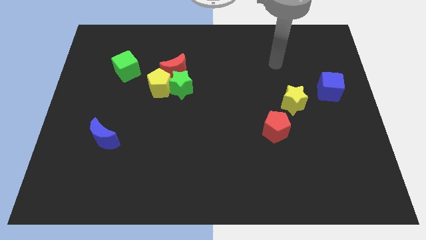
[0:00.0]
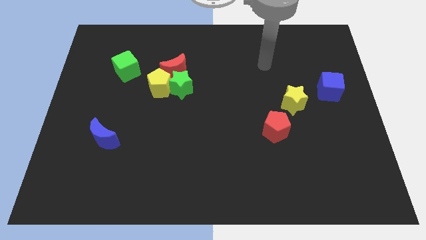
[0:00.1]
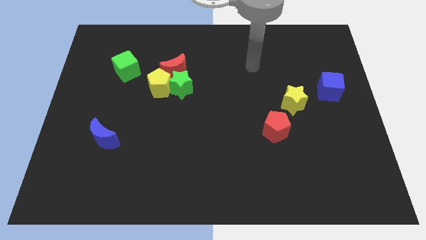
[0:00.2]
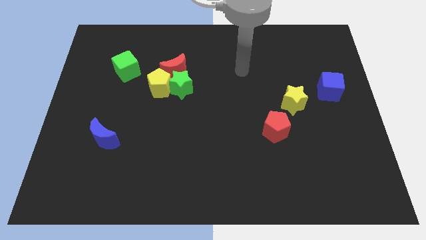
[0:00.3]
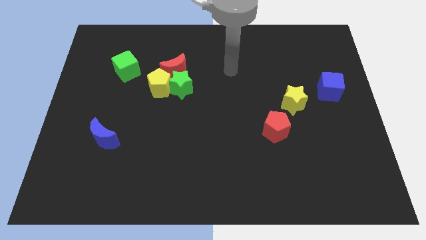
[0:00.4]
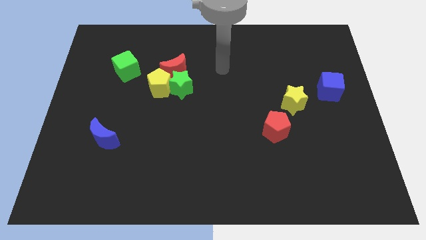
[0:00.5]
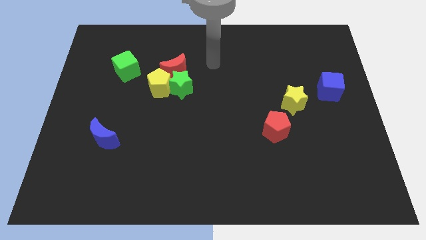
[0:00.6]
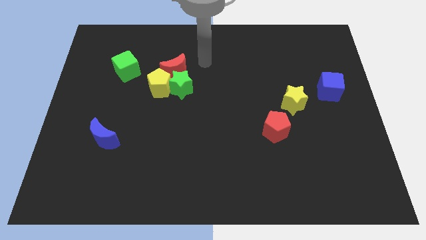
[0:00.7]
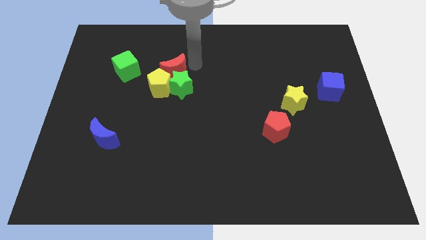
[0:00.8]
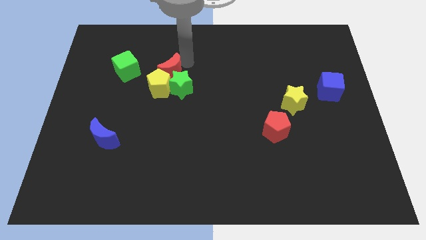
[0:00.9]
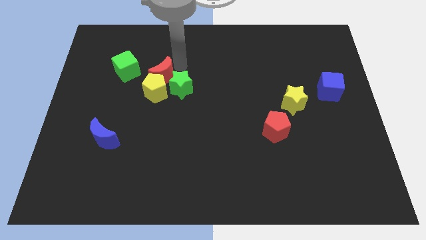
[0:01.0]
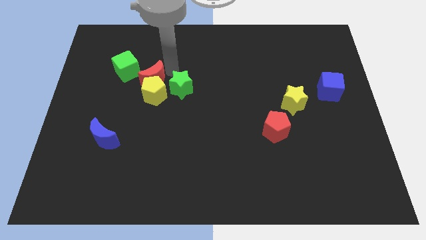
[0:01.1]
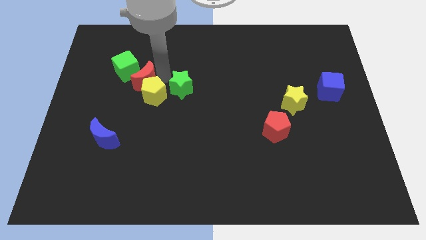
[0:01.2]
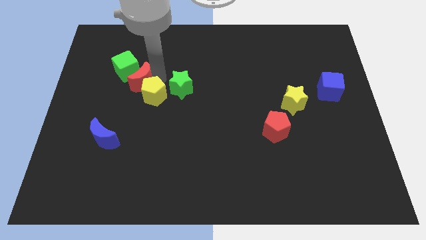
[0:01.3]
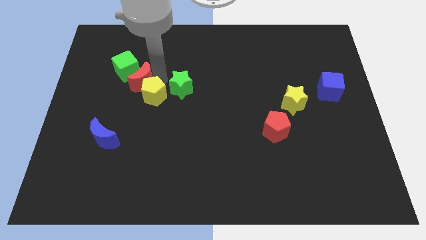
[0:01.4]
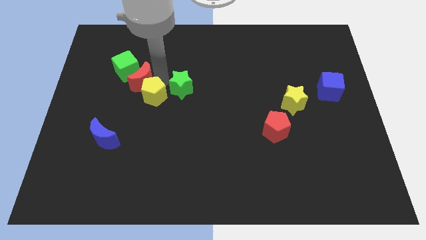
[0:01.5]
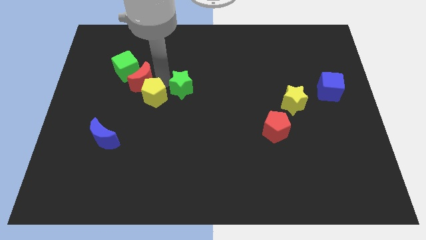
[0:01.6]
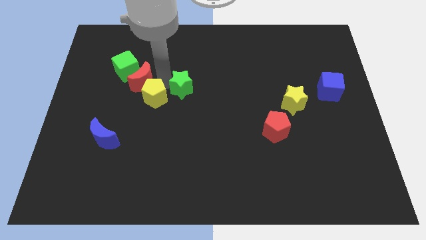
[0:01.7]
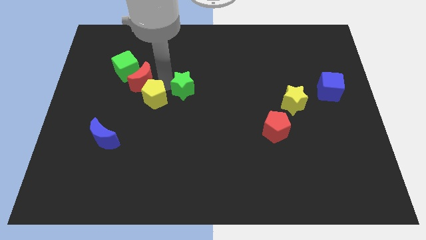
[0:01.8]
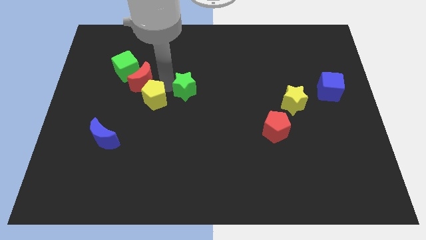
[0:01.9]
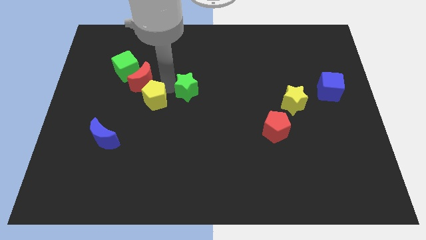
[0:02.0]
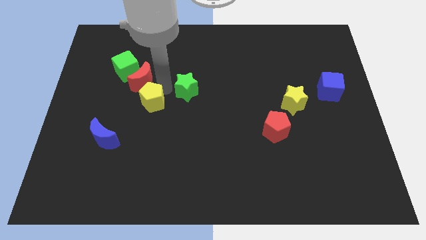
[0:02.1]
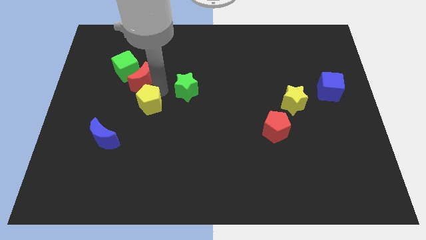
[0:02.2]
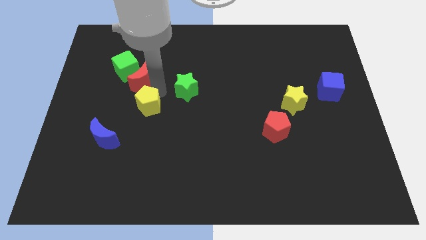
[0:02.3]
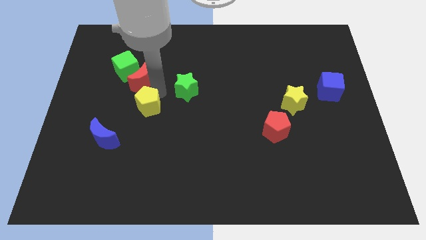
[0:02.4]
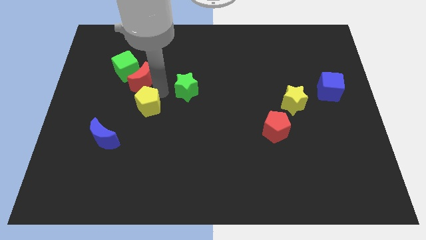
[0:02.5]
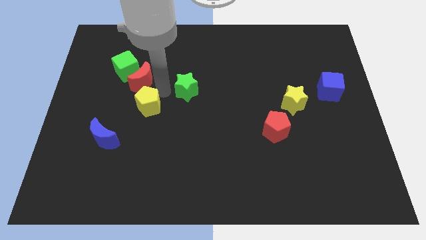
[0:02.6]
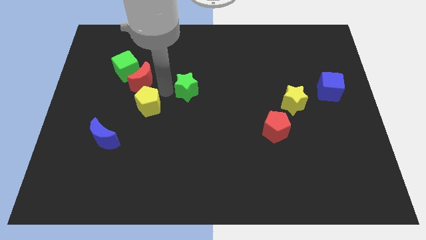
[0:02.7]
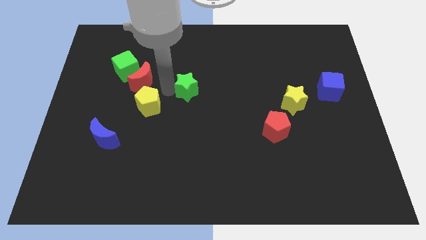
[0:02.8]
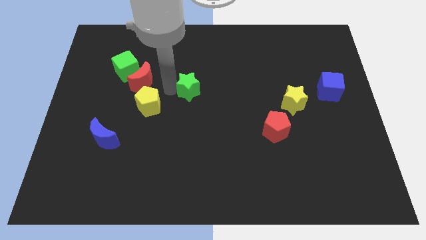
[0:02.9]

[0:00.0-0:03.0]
move the green star away from the yellow pentagon and red moon

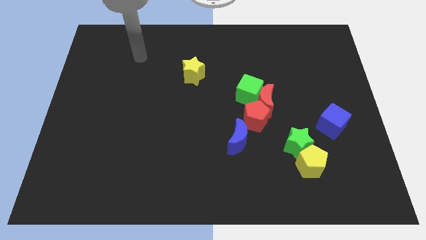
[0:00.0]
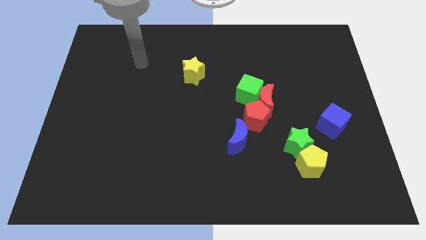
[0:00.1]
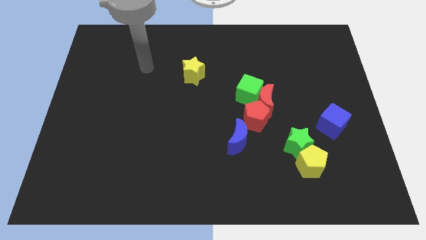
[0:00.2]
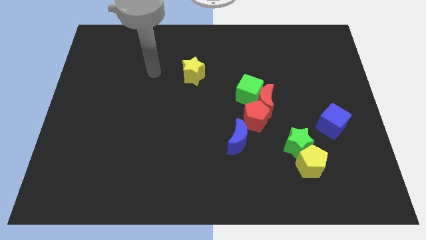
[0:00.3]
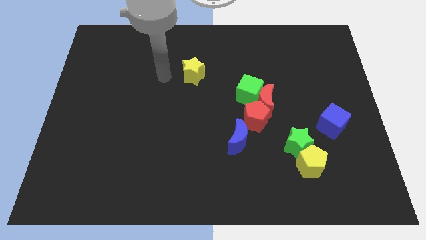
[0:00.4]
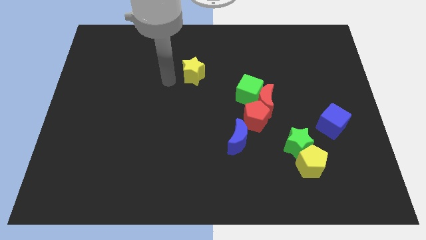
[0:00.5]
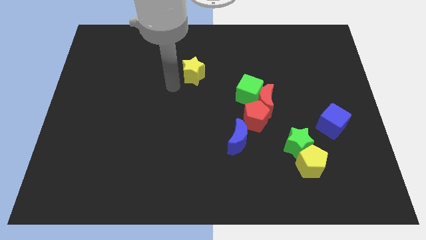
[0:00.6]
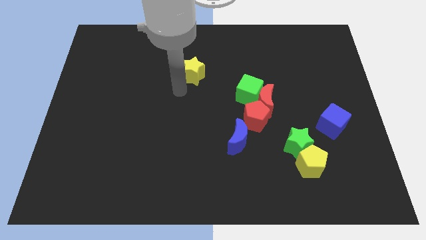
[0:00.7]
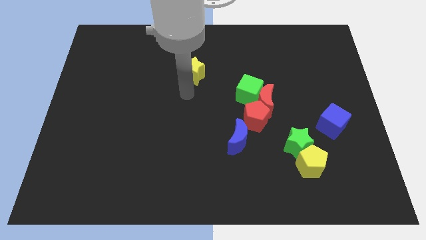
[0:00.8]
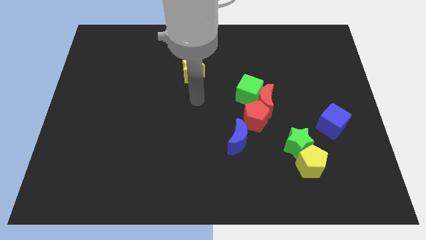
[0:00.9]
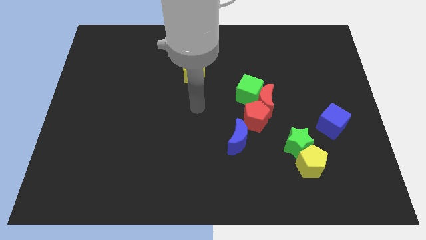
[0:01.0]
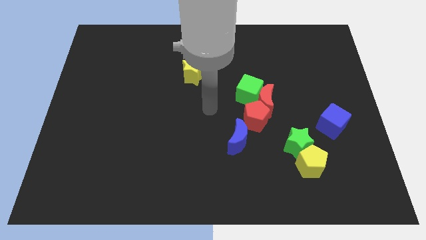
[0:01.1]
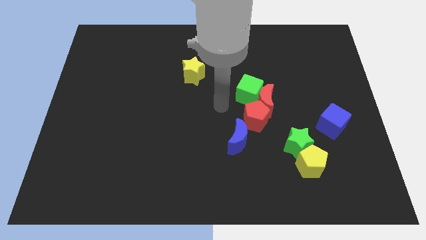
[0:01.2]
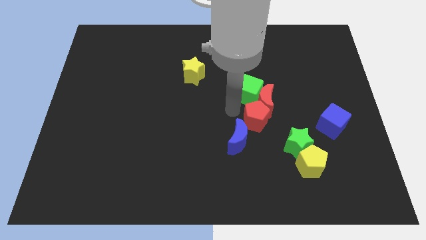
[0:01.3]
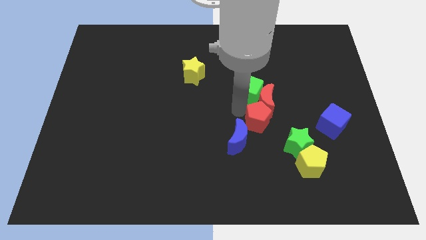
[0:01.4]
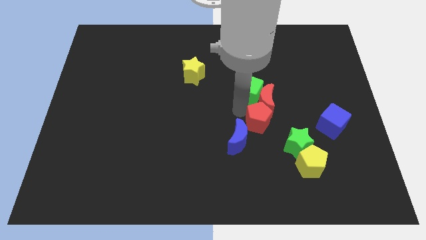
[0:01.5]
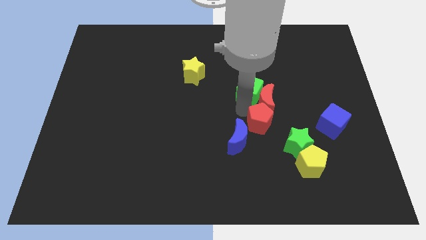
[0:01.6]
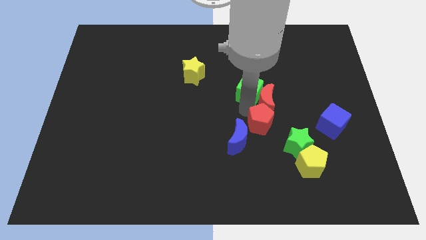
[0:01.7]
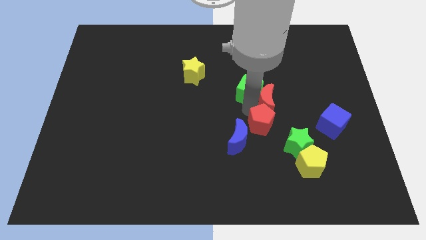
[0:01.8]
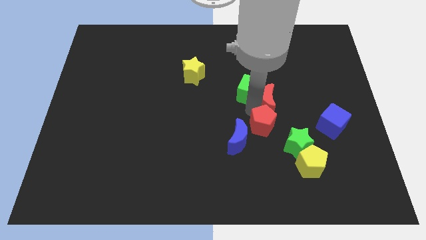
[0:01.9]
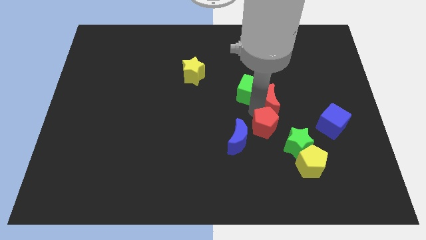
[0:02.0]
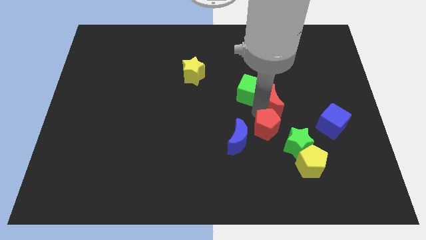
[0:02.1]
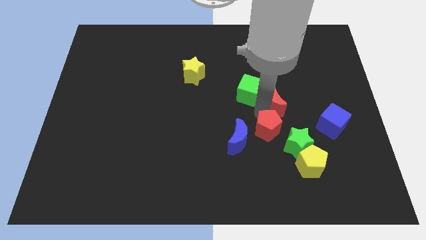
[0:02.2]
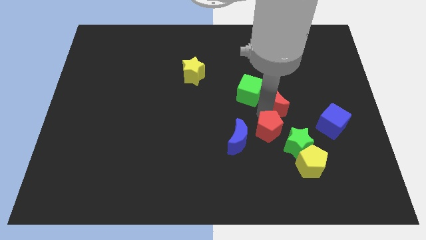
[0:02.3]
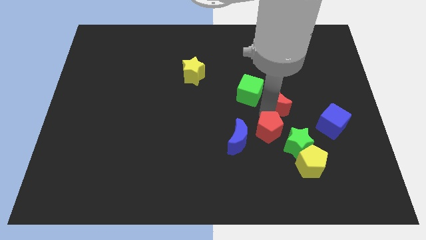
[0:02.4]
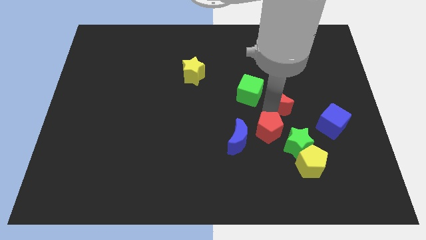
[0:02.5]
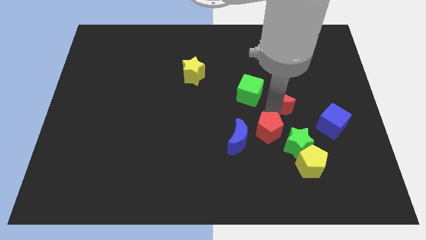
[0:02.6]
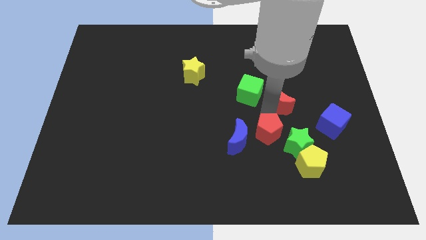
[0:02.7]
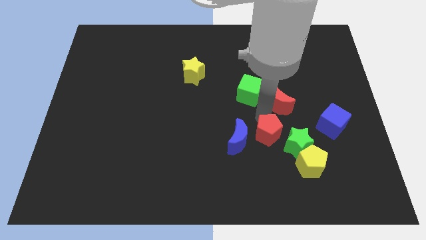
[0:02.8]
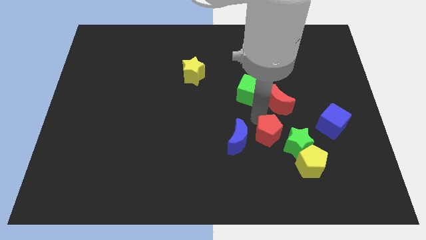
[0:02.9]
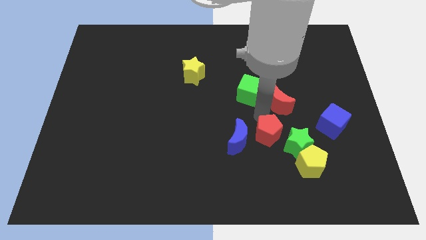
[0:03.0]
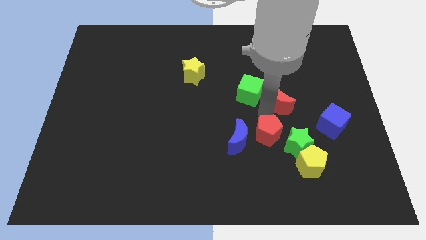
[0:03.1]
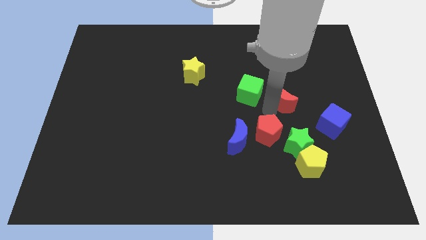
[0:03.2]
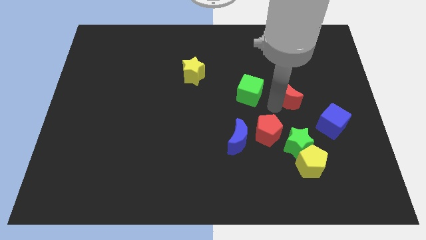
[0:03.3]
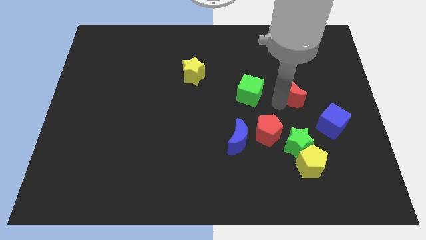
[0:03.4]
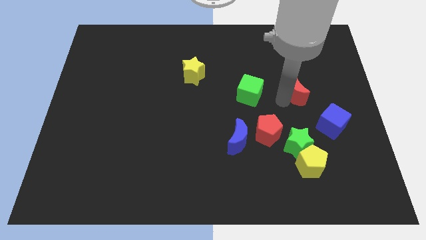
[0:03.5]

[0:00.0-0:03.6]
separate the red moon from the green cube and red pentagon

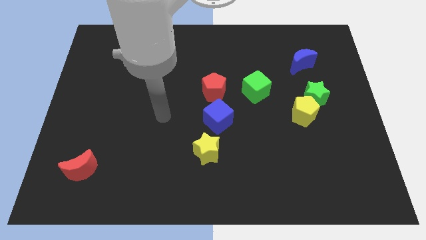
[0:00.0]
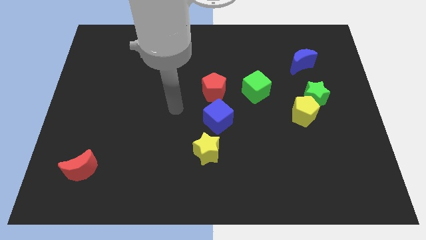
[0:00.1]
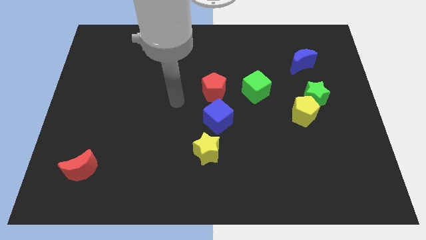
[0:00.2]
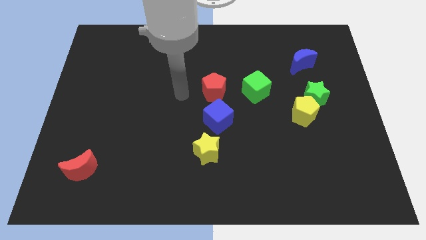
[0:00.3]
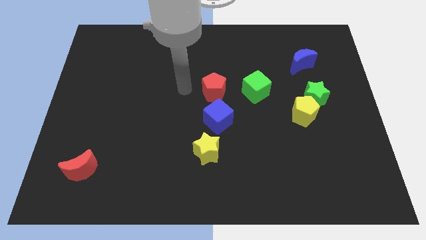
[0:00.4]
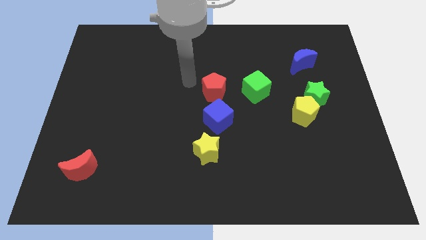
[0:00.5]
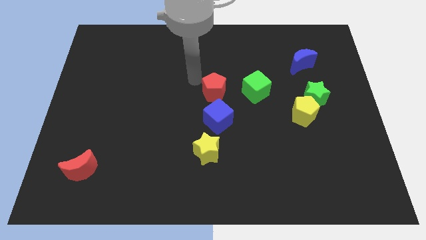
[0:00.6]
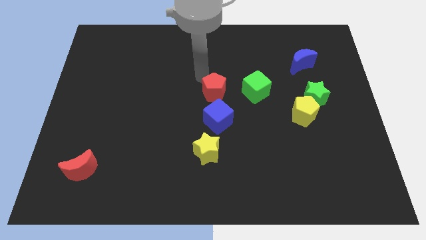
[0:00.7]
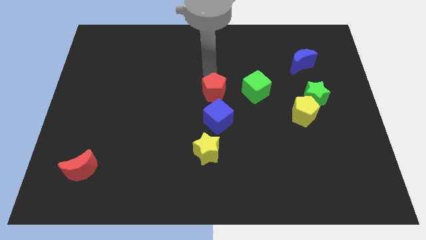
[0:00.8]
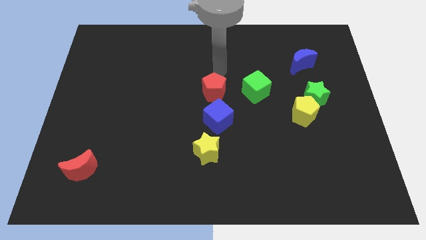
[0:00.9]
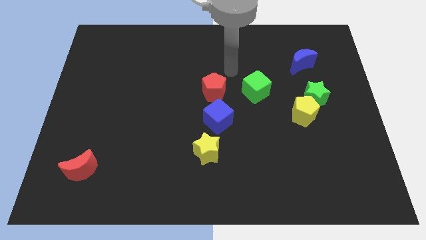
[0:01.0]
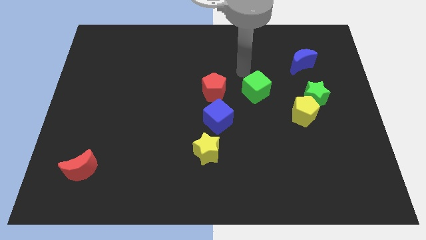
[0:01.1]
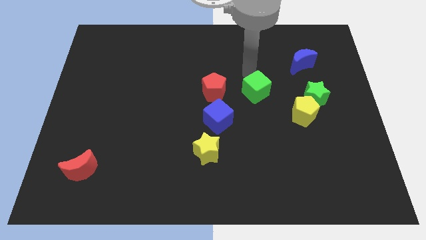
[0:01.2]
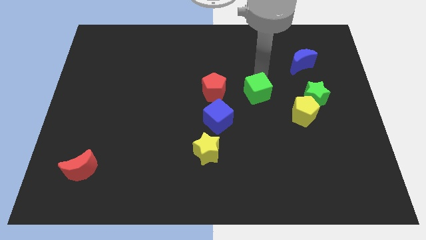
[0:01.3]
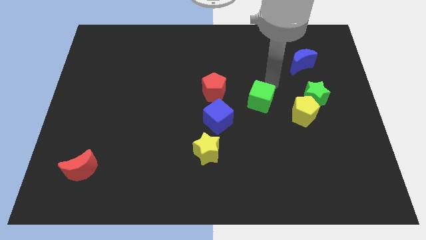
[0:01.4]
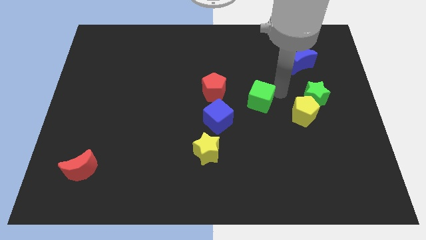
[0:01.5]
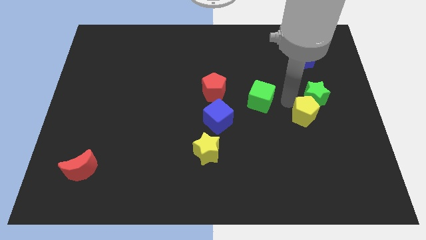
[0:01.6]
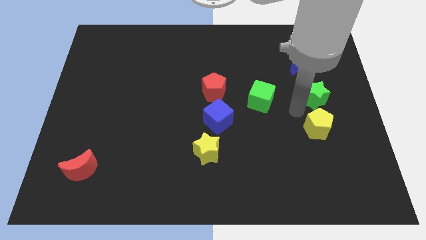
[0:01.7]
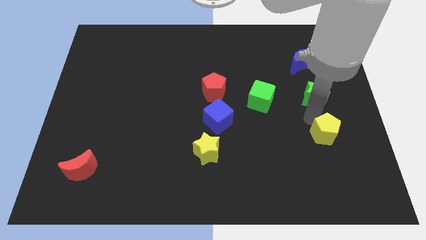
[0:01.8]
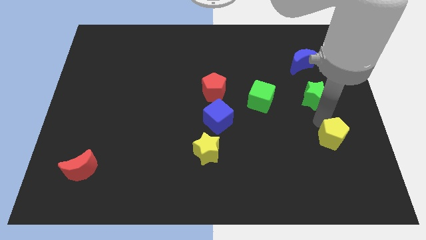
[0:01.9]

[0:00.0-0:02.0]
pull the green star apart from the yellow pentagon

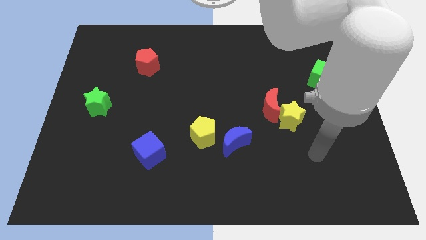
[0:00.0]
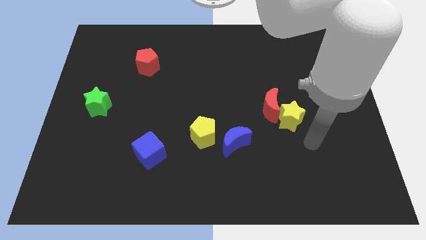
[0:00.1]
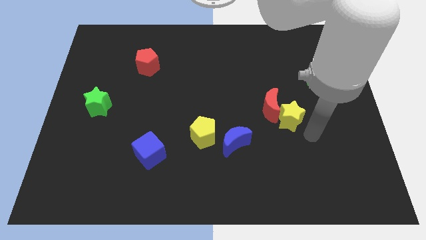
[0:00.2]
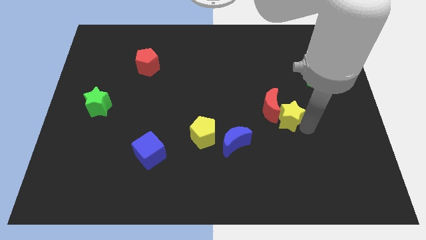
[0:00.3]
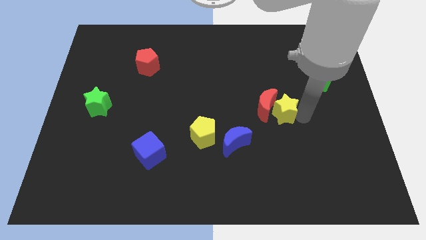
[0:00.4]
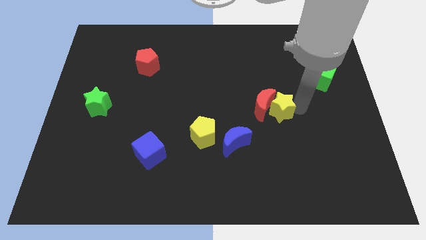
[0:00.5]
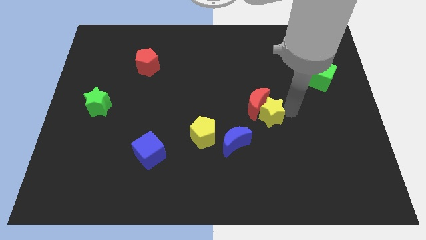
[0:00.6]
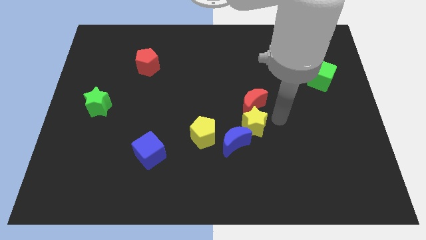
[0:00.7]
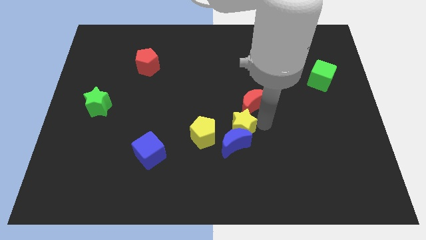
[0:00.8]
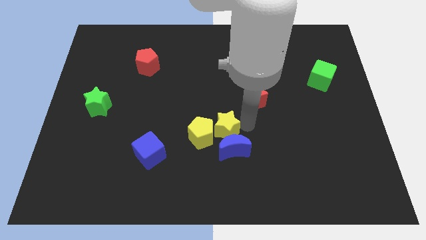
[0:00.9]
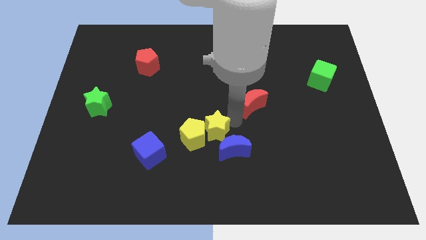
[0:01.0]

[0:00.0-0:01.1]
separate the red moon from the yellow star
